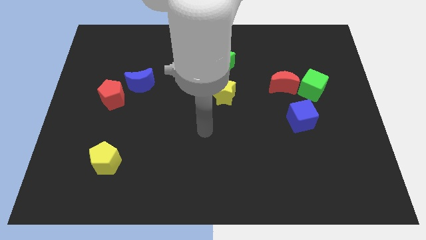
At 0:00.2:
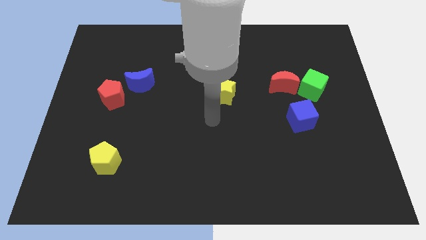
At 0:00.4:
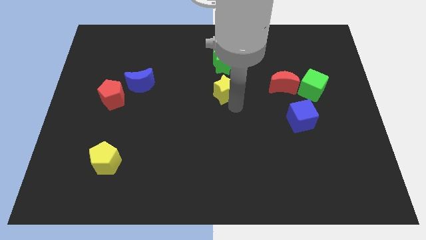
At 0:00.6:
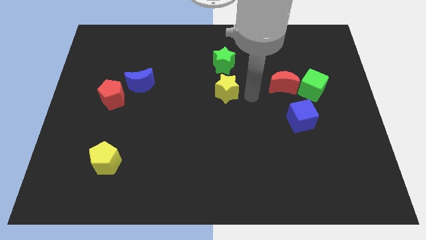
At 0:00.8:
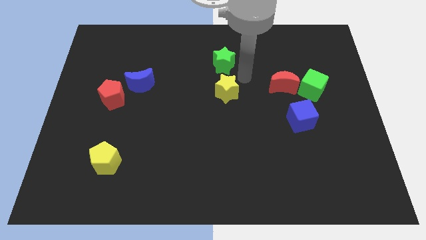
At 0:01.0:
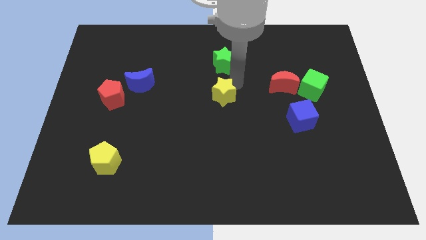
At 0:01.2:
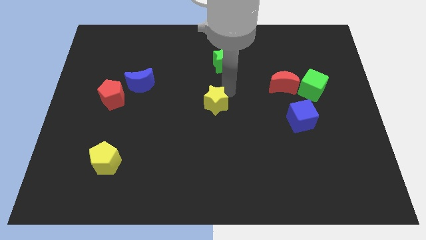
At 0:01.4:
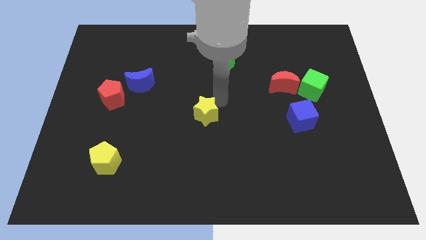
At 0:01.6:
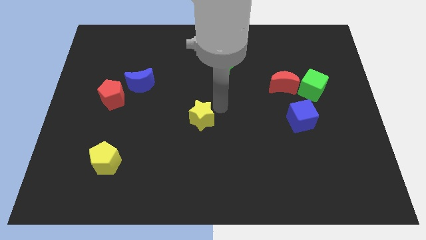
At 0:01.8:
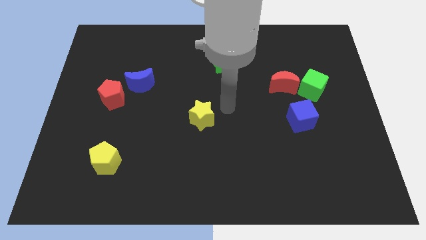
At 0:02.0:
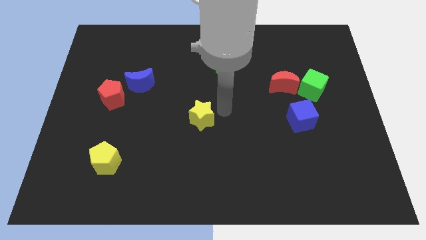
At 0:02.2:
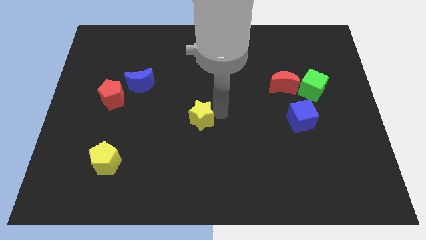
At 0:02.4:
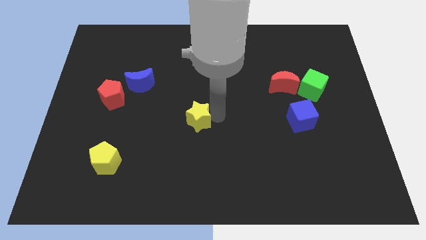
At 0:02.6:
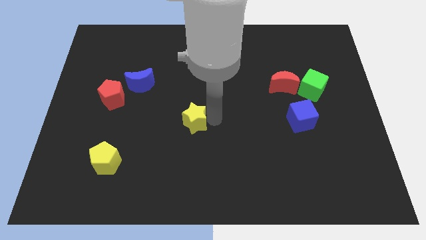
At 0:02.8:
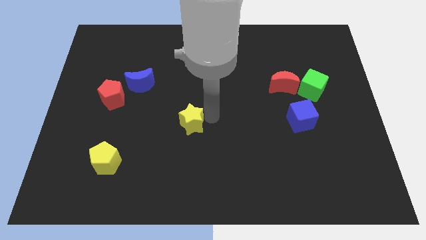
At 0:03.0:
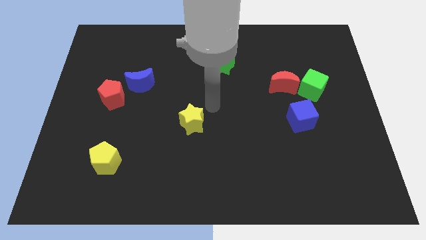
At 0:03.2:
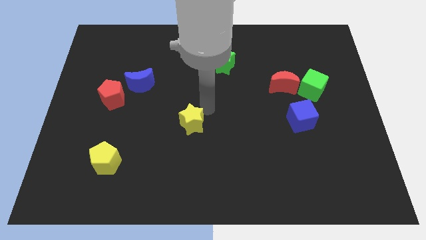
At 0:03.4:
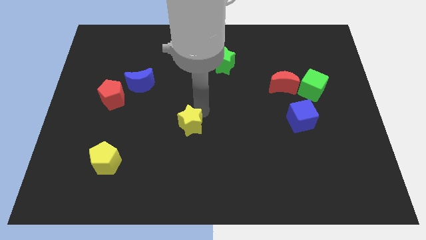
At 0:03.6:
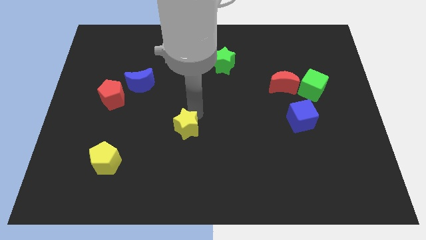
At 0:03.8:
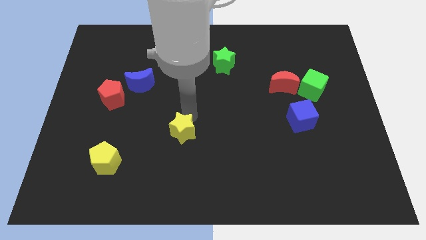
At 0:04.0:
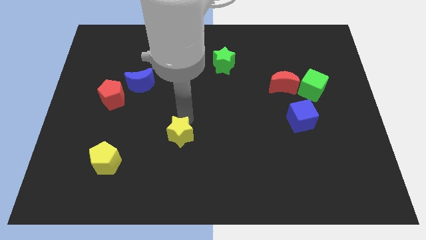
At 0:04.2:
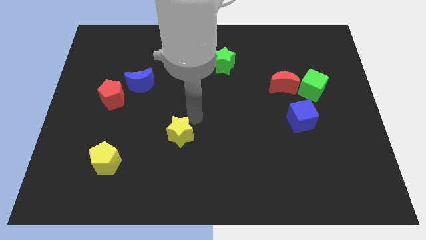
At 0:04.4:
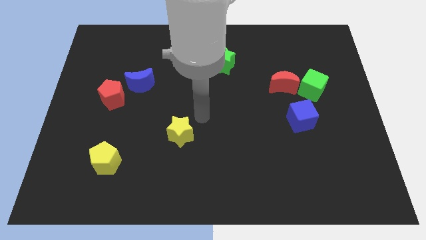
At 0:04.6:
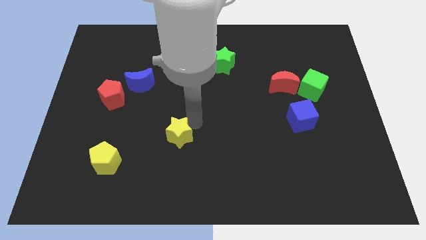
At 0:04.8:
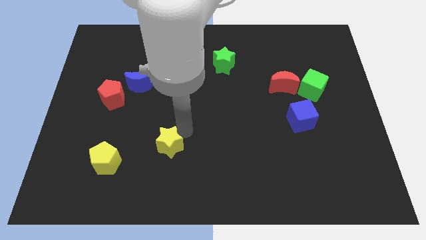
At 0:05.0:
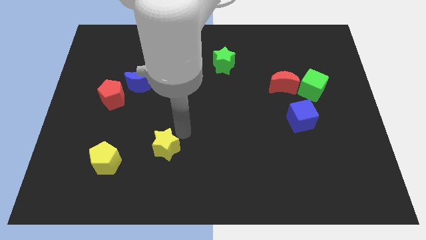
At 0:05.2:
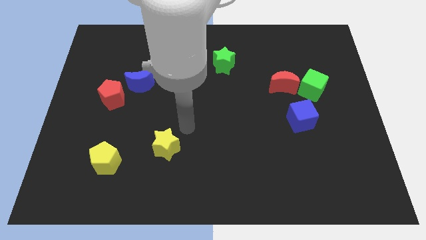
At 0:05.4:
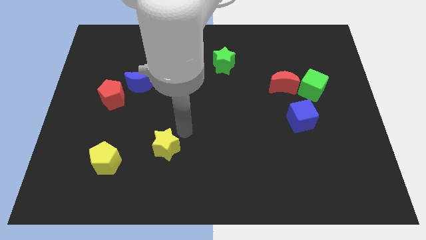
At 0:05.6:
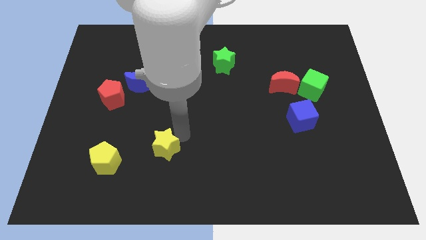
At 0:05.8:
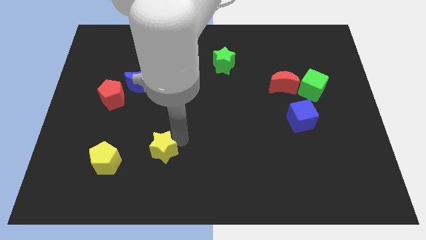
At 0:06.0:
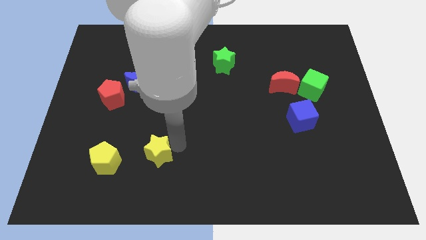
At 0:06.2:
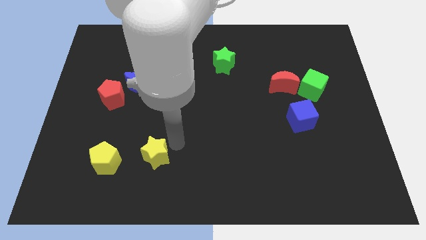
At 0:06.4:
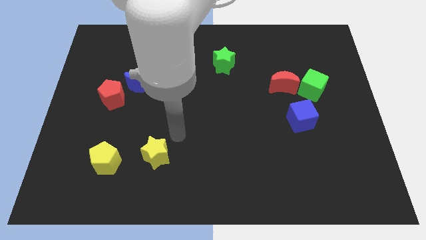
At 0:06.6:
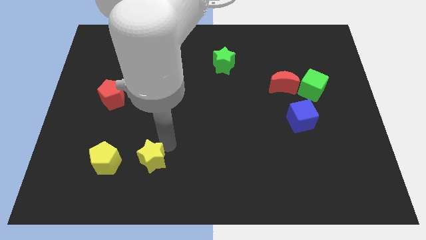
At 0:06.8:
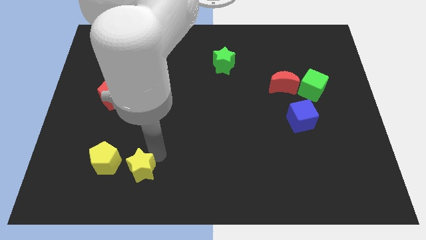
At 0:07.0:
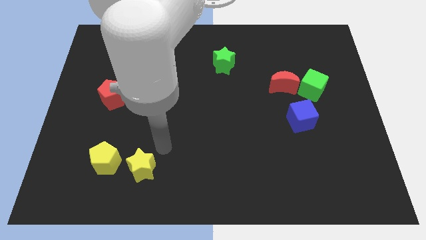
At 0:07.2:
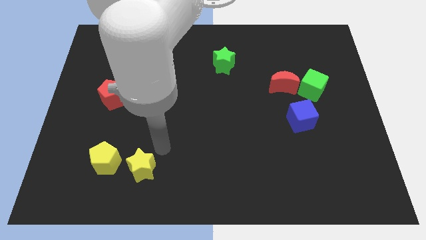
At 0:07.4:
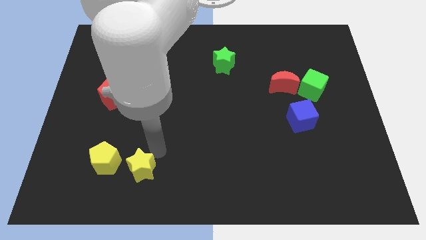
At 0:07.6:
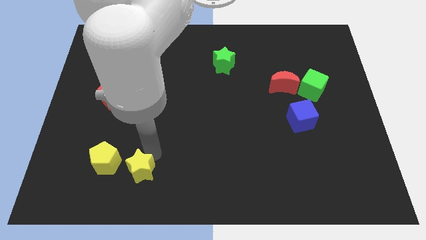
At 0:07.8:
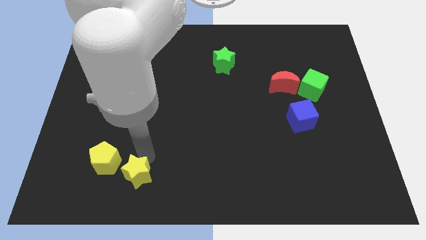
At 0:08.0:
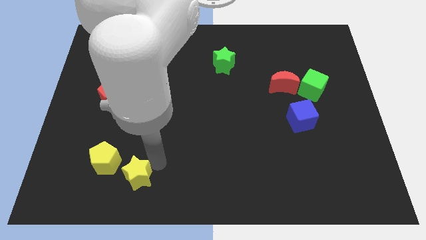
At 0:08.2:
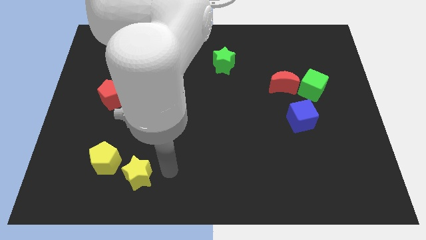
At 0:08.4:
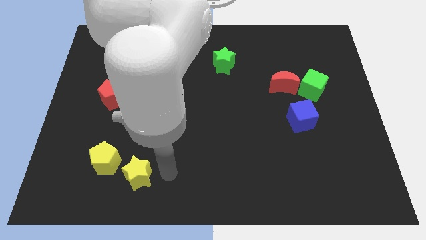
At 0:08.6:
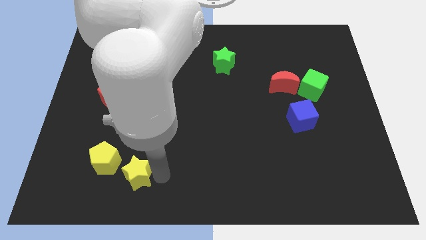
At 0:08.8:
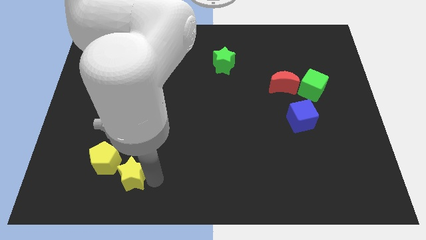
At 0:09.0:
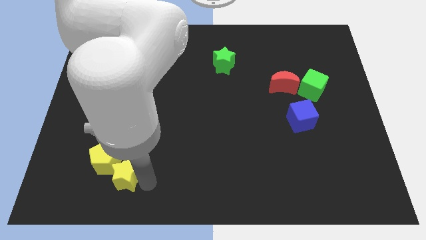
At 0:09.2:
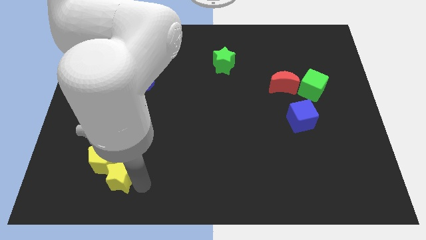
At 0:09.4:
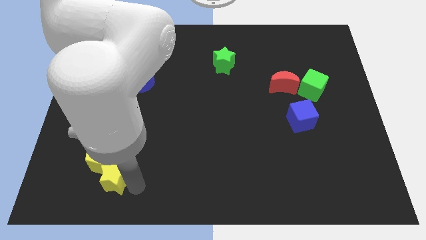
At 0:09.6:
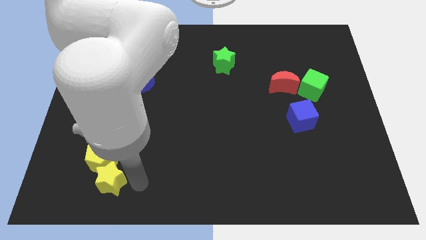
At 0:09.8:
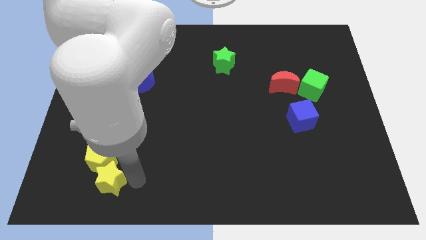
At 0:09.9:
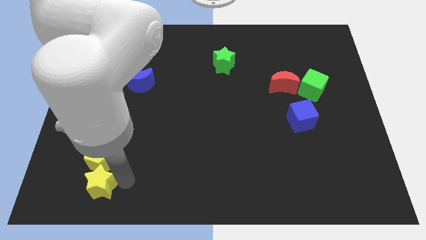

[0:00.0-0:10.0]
put the yellow star to the bottom left side of the yellow pentagon

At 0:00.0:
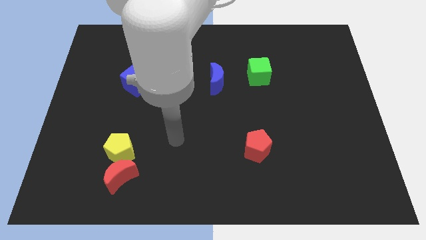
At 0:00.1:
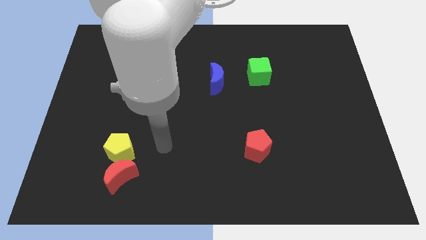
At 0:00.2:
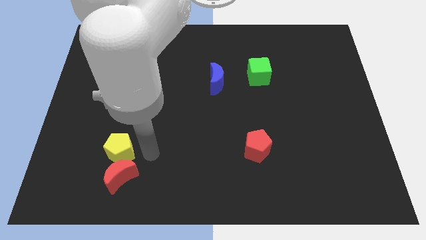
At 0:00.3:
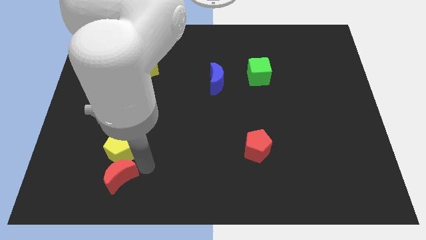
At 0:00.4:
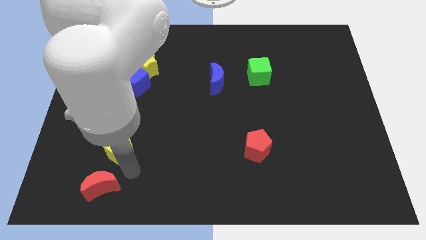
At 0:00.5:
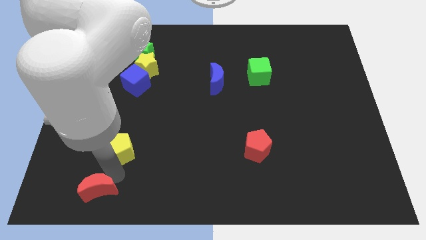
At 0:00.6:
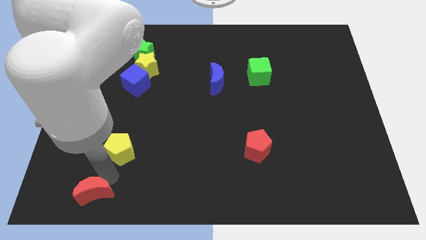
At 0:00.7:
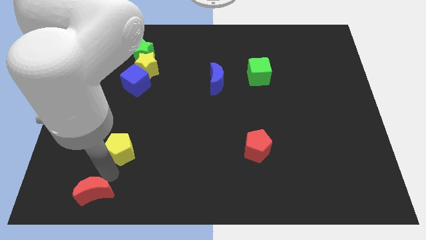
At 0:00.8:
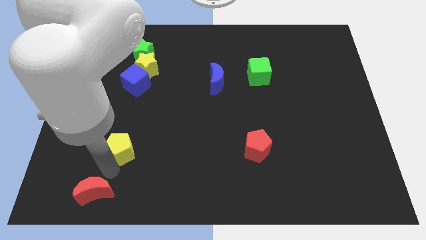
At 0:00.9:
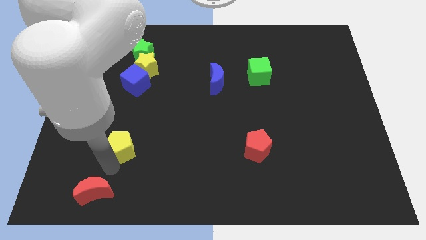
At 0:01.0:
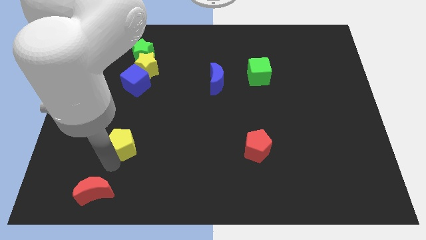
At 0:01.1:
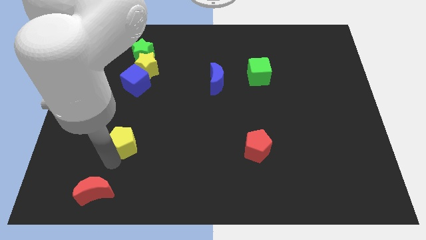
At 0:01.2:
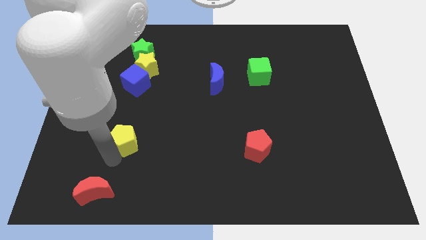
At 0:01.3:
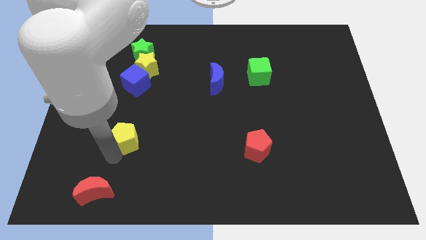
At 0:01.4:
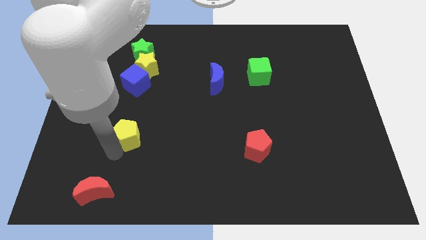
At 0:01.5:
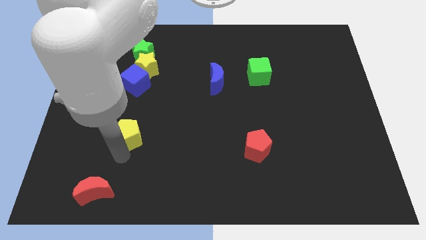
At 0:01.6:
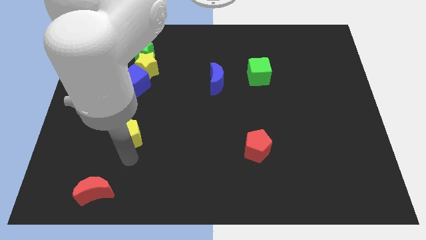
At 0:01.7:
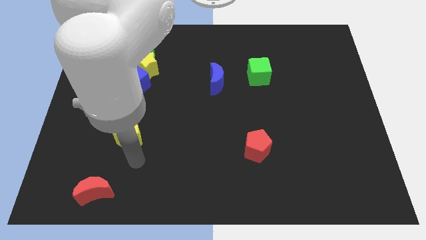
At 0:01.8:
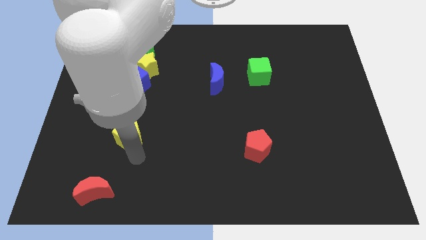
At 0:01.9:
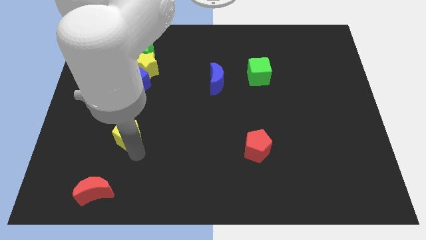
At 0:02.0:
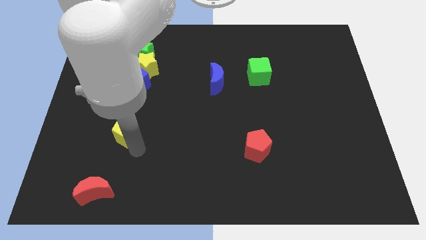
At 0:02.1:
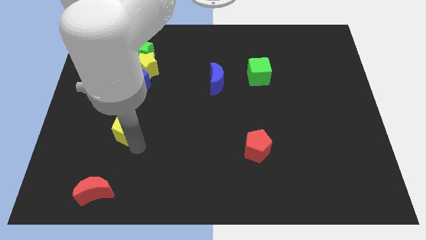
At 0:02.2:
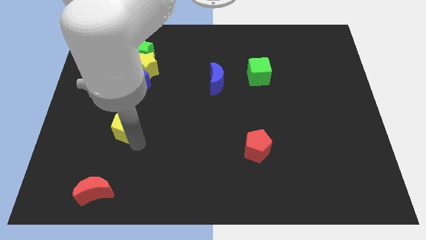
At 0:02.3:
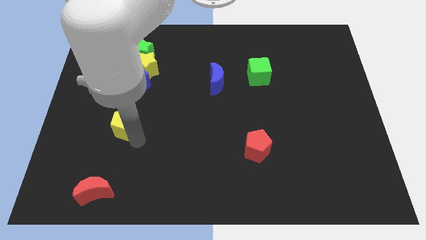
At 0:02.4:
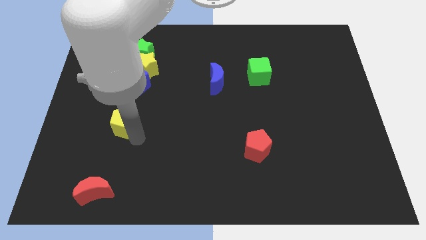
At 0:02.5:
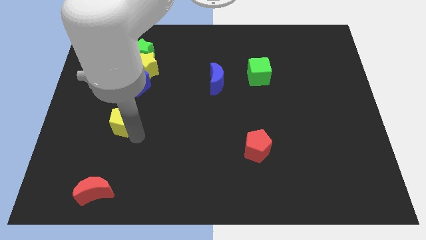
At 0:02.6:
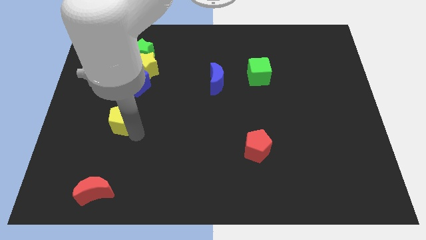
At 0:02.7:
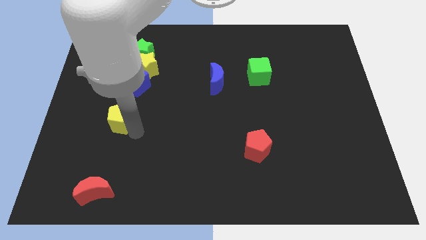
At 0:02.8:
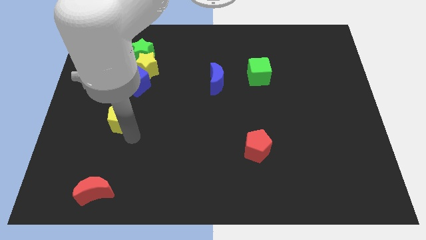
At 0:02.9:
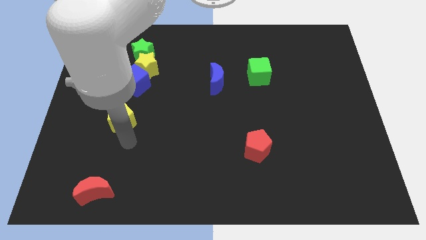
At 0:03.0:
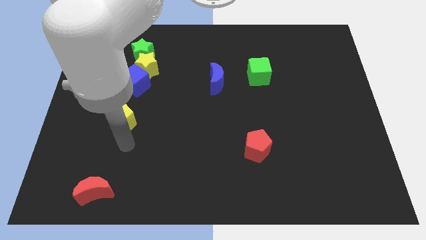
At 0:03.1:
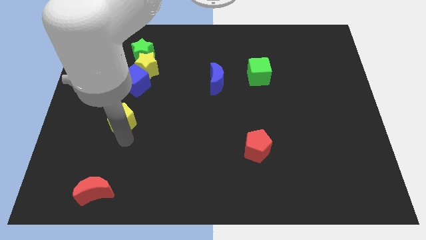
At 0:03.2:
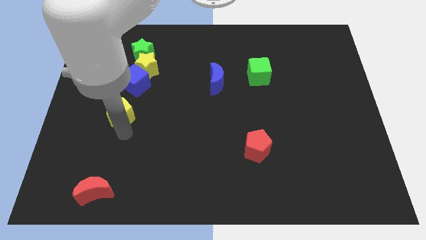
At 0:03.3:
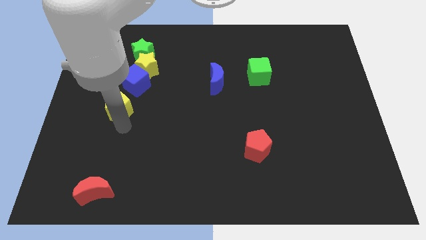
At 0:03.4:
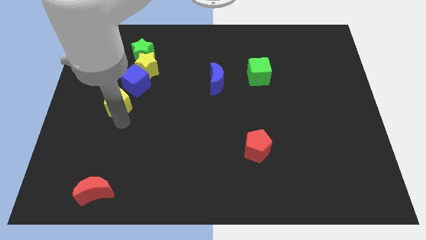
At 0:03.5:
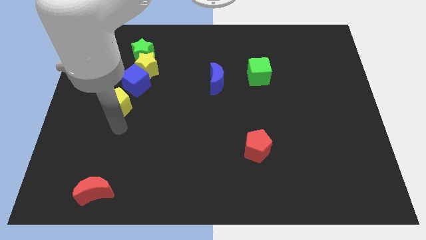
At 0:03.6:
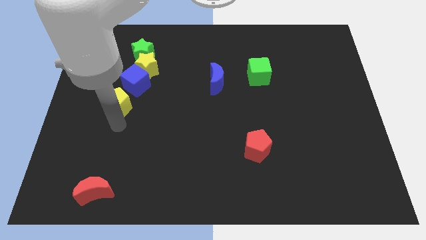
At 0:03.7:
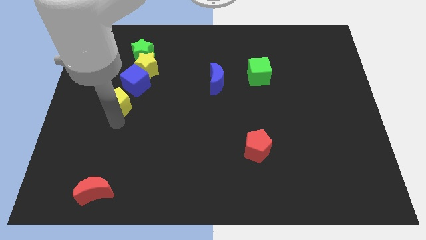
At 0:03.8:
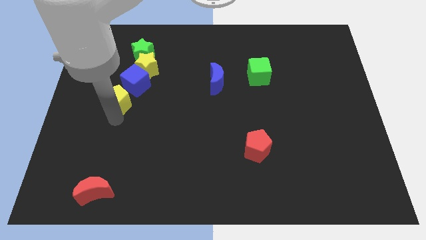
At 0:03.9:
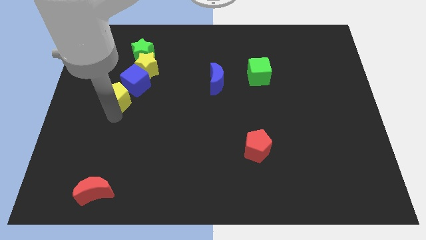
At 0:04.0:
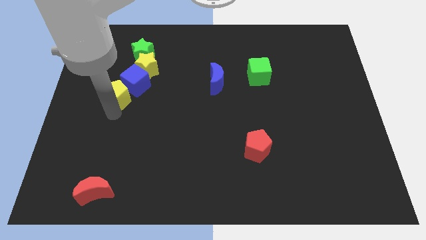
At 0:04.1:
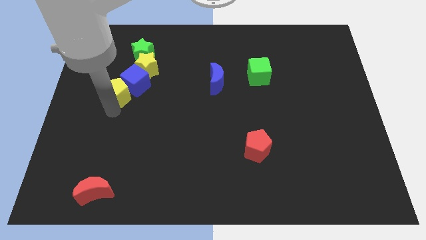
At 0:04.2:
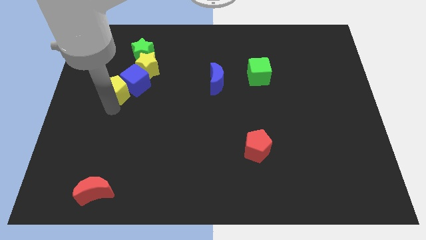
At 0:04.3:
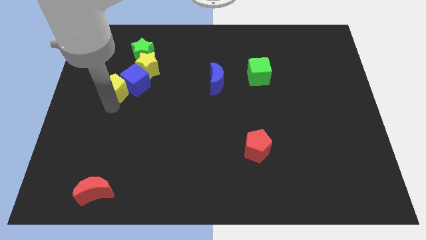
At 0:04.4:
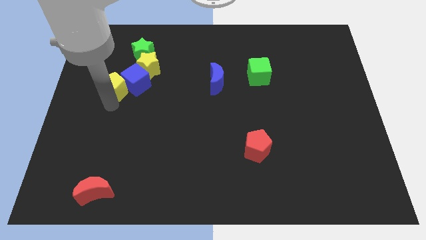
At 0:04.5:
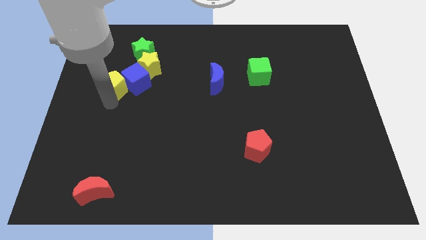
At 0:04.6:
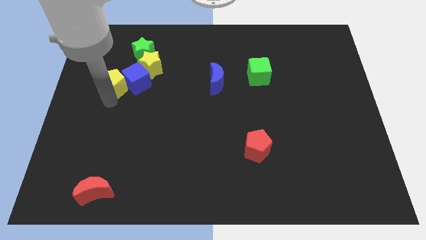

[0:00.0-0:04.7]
move the yellow pentagon to the top left of the blue cube
